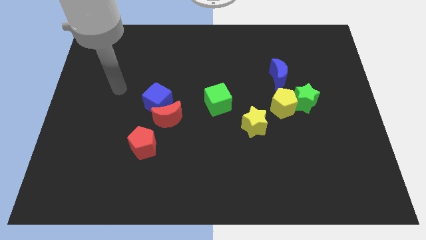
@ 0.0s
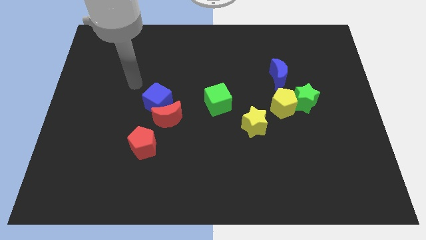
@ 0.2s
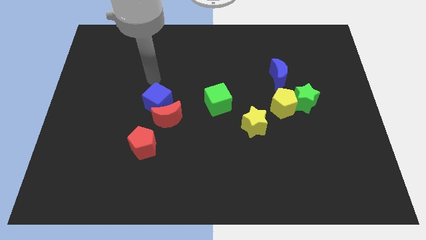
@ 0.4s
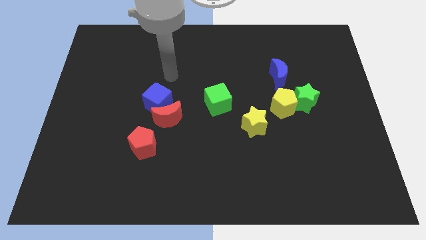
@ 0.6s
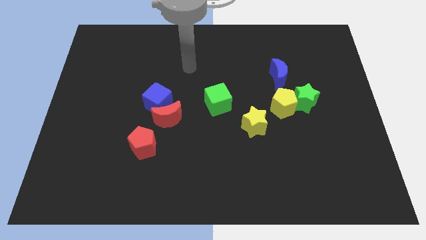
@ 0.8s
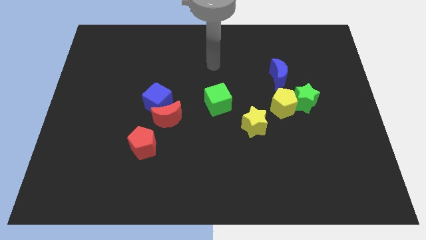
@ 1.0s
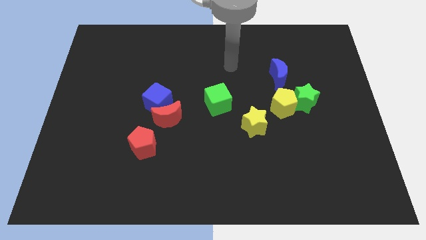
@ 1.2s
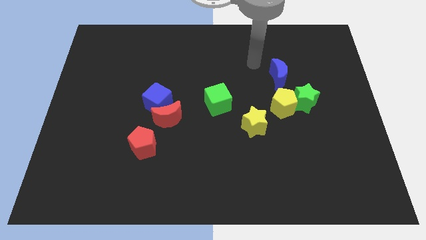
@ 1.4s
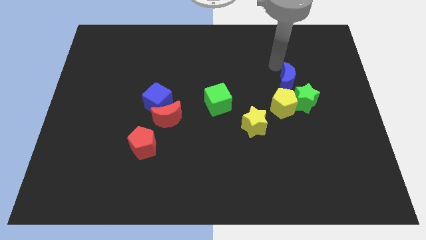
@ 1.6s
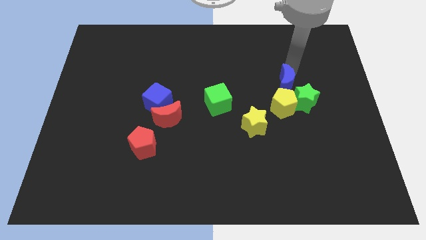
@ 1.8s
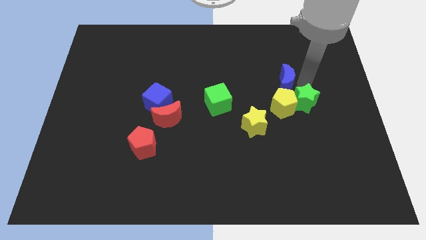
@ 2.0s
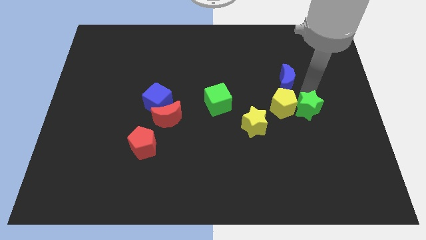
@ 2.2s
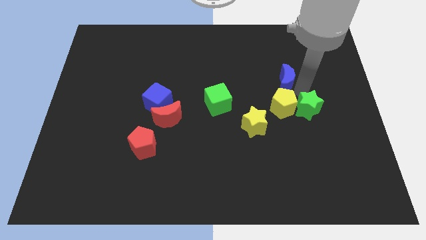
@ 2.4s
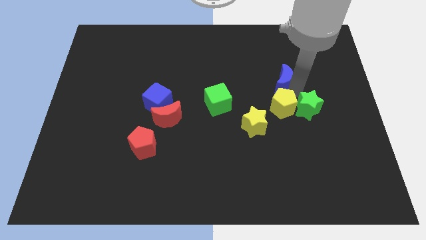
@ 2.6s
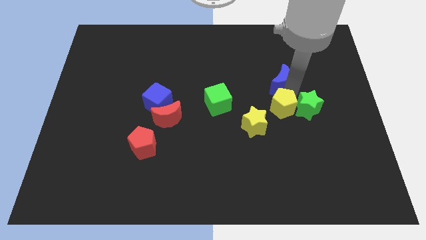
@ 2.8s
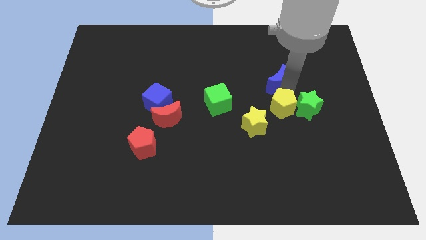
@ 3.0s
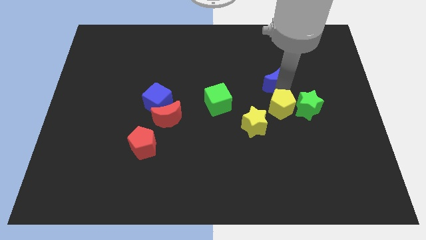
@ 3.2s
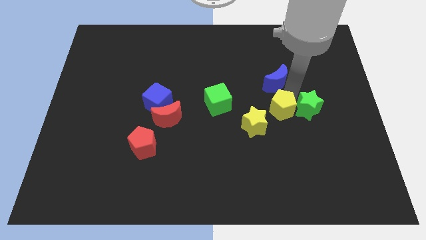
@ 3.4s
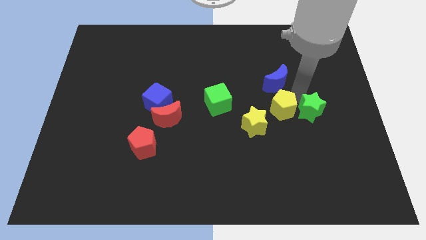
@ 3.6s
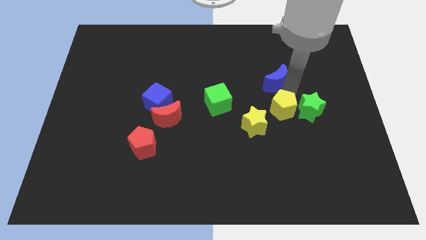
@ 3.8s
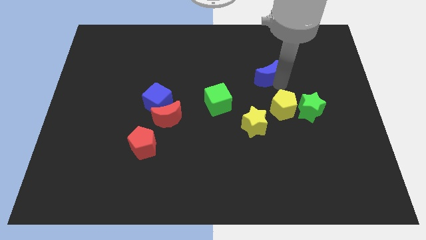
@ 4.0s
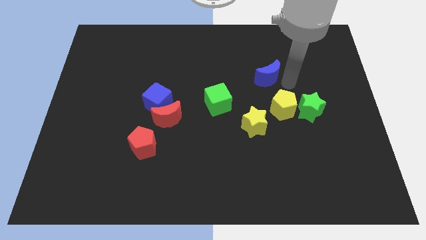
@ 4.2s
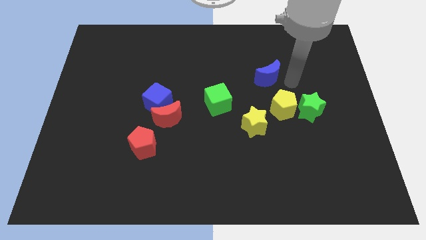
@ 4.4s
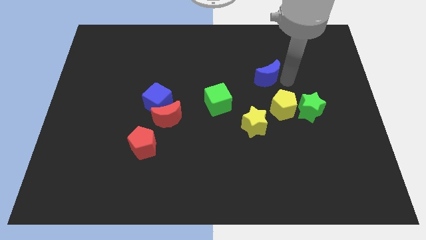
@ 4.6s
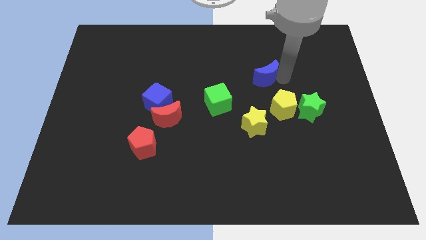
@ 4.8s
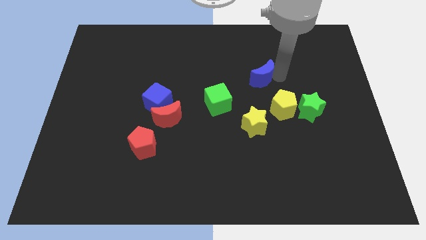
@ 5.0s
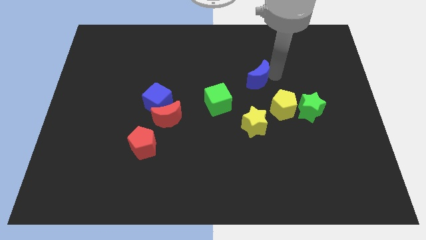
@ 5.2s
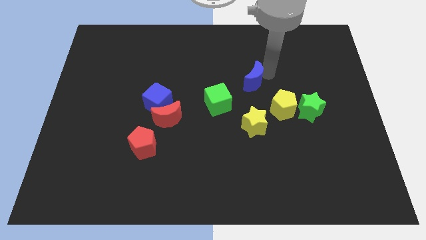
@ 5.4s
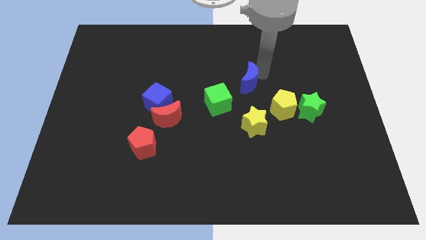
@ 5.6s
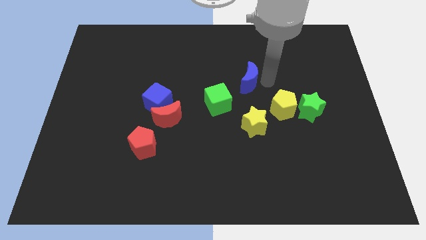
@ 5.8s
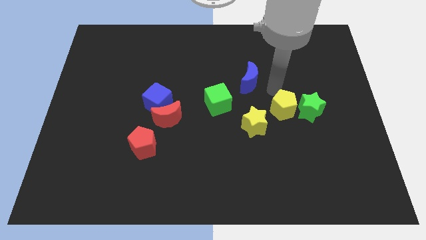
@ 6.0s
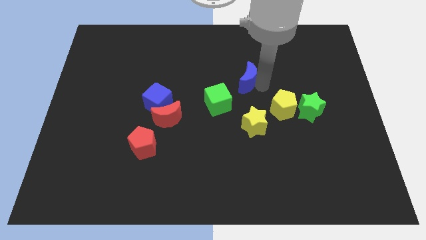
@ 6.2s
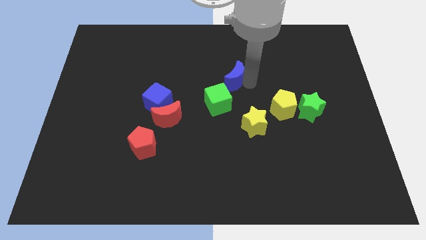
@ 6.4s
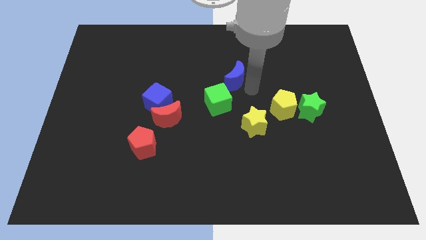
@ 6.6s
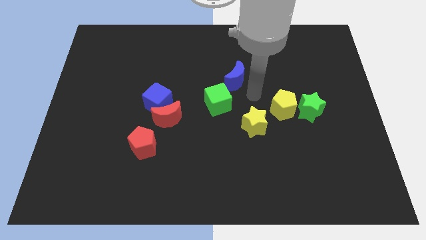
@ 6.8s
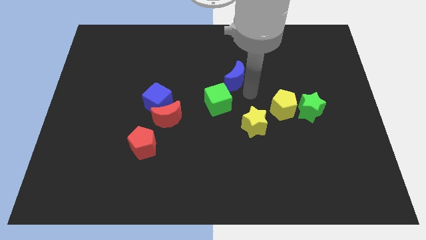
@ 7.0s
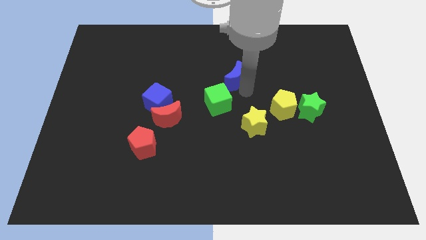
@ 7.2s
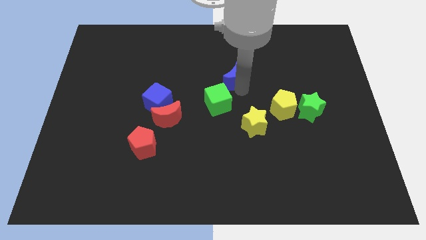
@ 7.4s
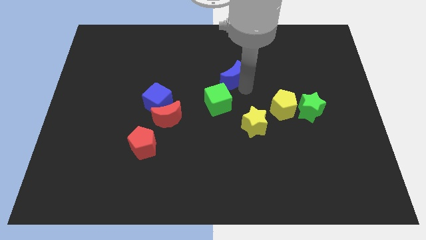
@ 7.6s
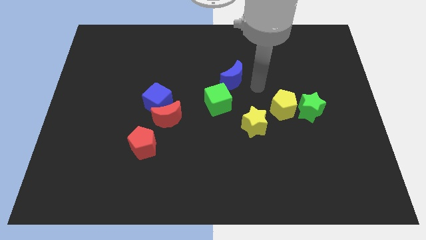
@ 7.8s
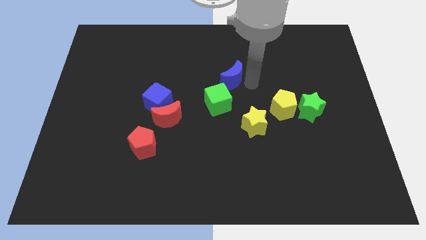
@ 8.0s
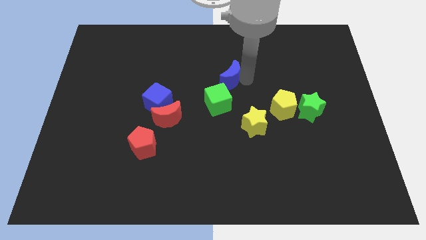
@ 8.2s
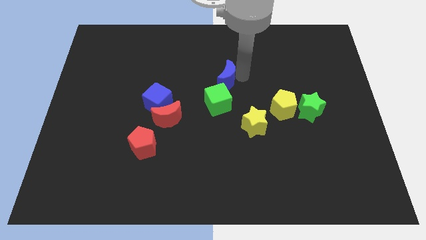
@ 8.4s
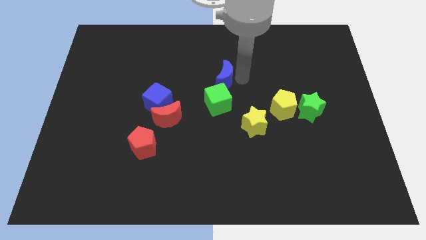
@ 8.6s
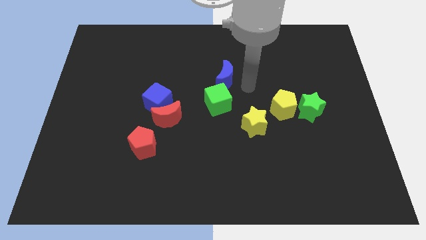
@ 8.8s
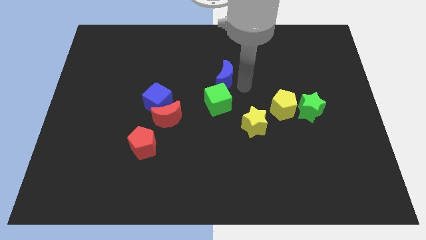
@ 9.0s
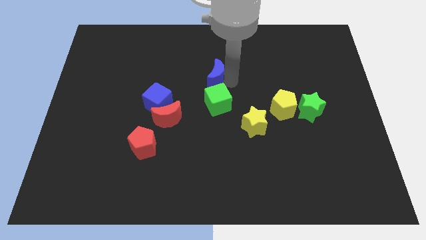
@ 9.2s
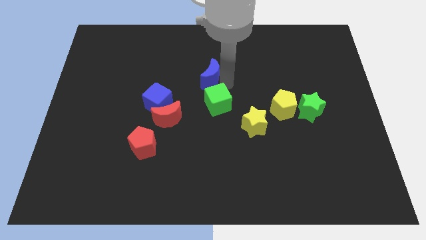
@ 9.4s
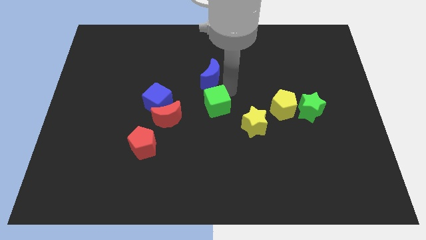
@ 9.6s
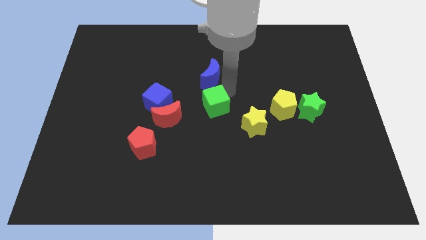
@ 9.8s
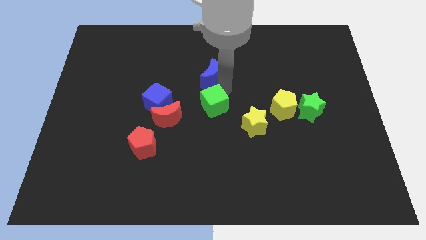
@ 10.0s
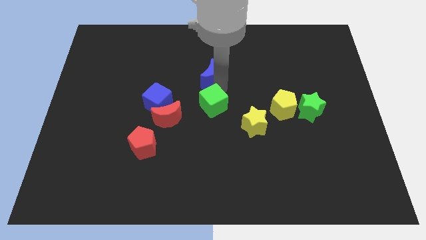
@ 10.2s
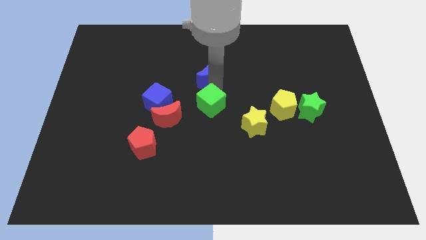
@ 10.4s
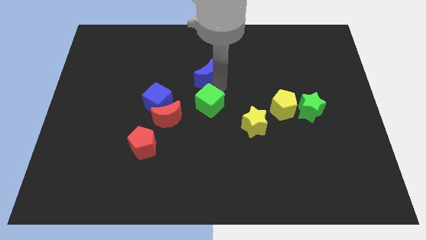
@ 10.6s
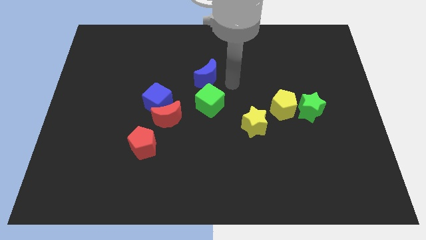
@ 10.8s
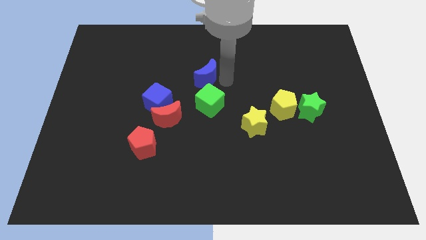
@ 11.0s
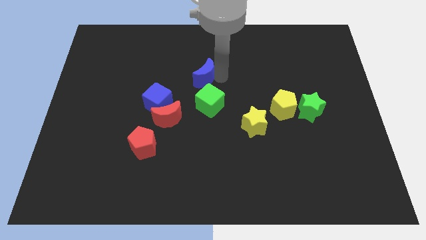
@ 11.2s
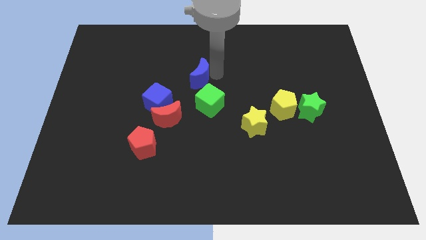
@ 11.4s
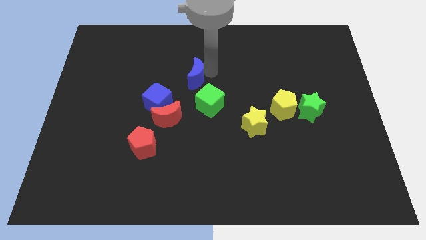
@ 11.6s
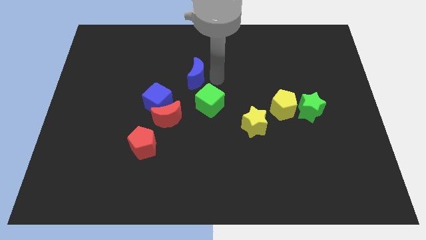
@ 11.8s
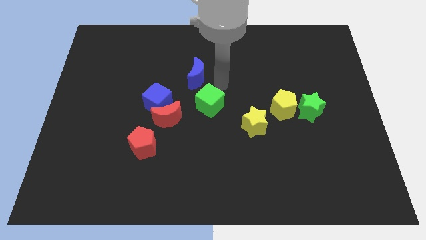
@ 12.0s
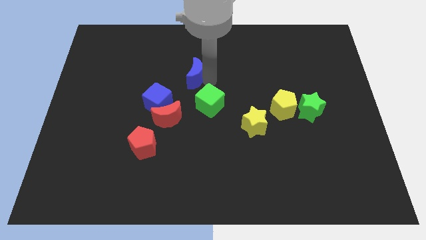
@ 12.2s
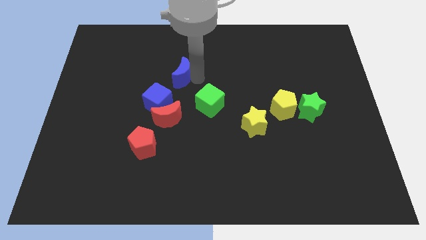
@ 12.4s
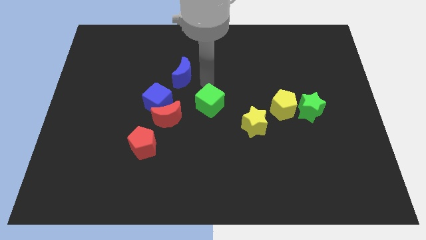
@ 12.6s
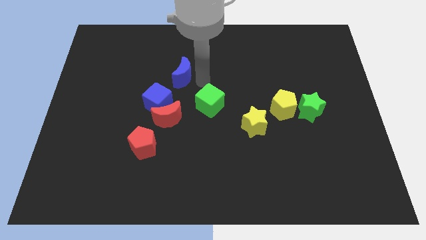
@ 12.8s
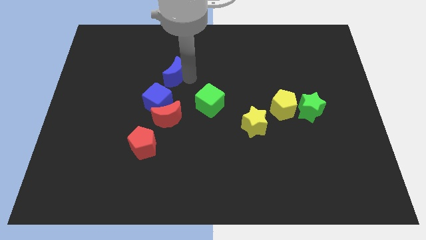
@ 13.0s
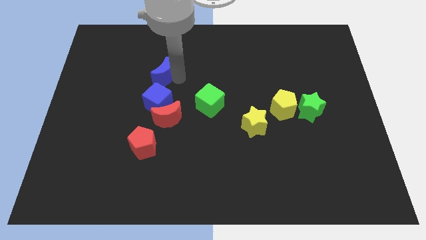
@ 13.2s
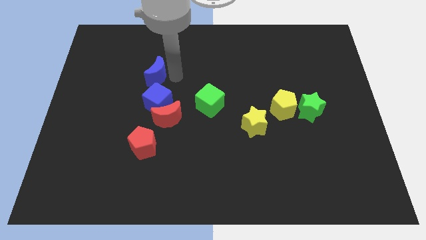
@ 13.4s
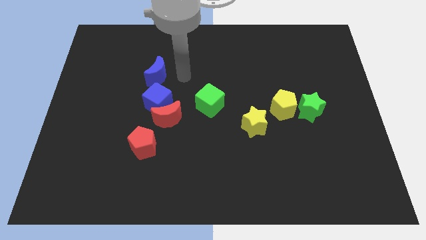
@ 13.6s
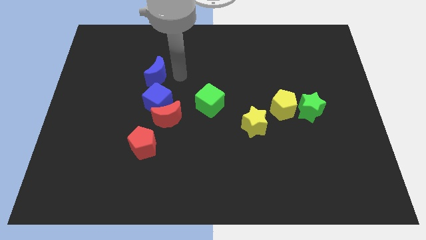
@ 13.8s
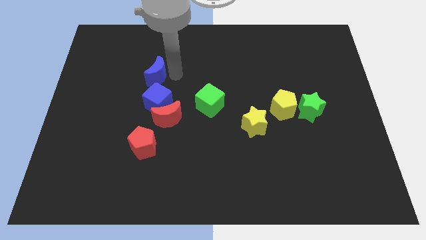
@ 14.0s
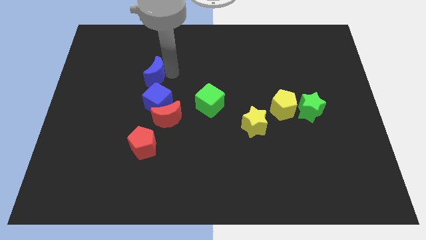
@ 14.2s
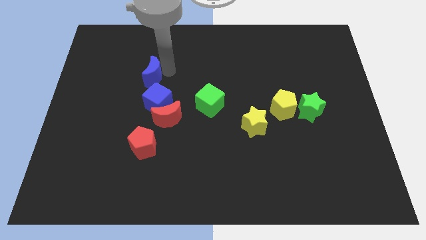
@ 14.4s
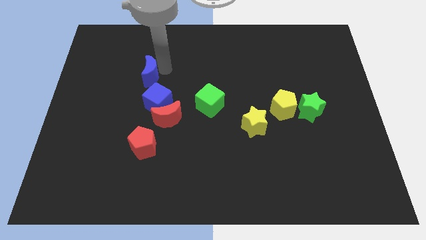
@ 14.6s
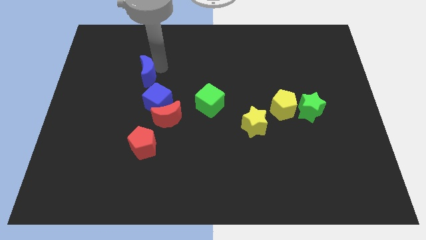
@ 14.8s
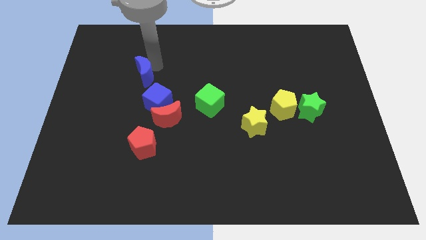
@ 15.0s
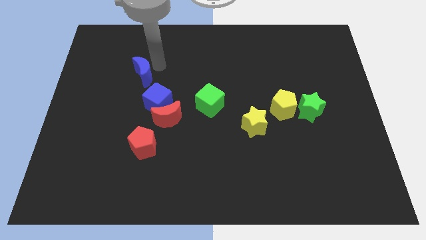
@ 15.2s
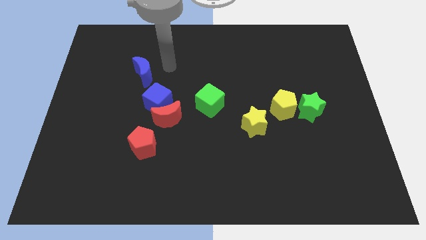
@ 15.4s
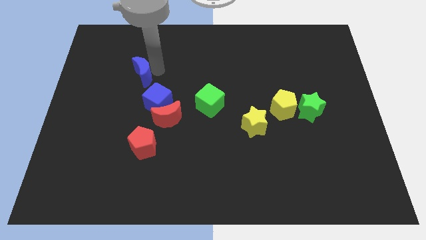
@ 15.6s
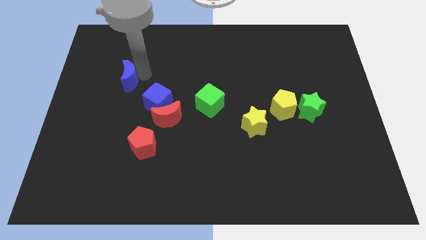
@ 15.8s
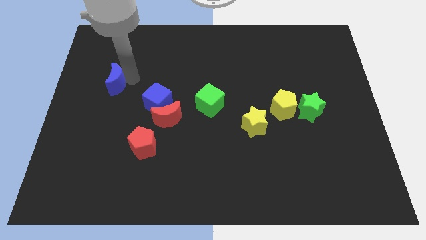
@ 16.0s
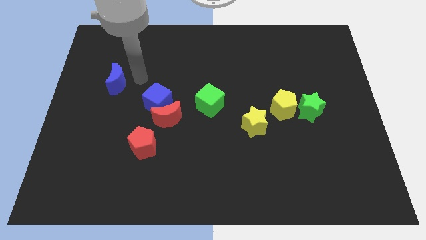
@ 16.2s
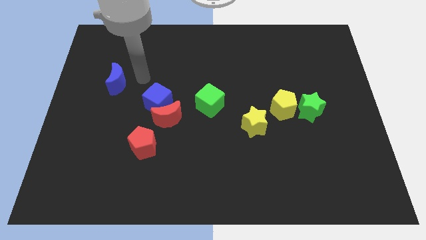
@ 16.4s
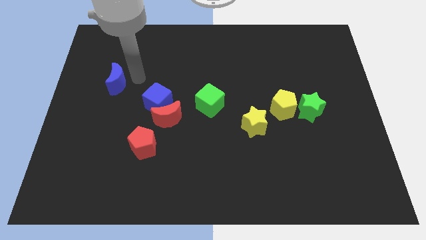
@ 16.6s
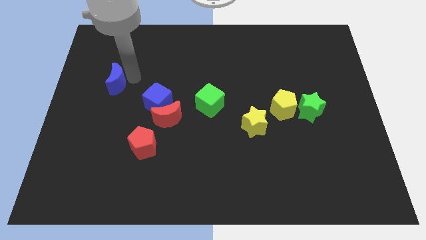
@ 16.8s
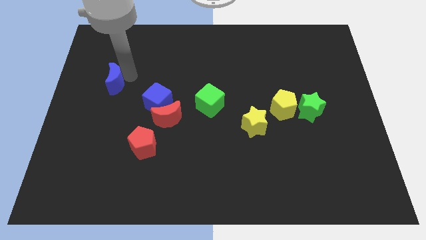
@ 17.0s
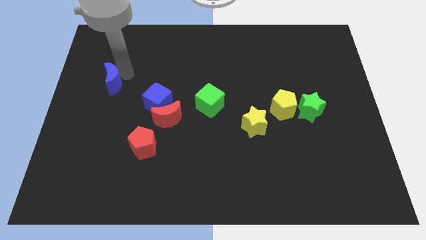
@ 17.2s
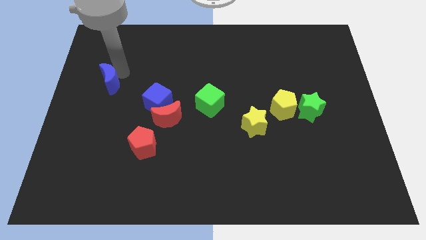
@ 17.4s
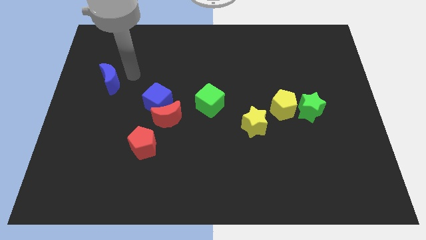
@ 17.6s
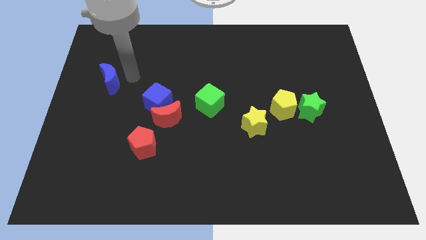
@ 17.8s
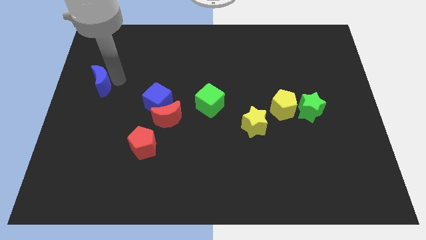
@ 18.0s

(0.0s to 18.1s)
move the blue moon to the left side
